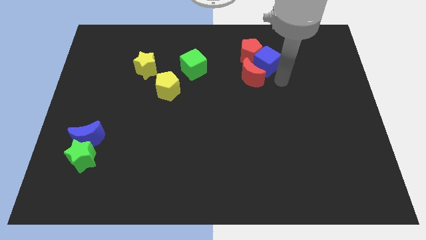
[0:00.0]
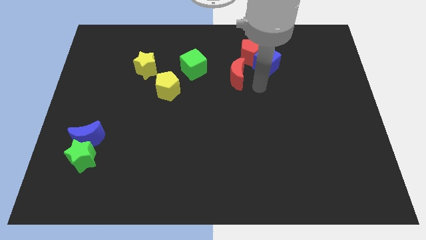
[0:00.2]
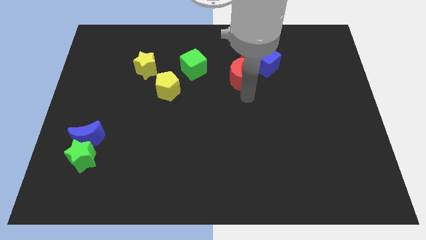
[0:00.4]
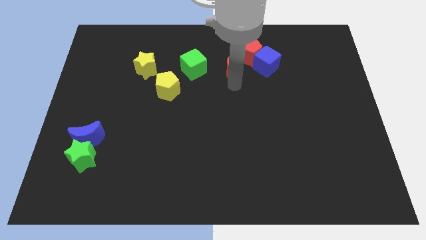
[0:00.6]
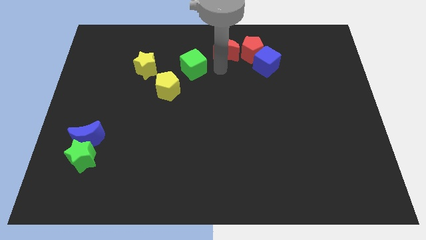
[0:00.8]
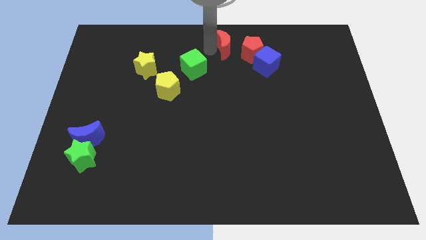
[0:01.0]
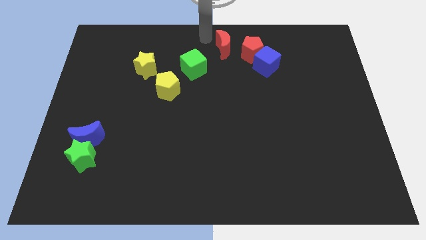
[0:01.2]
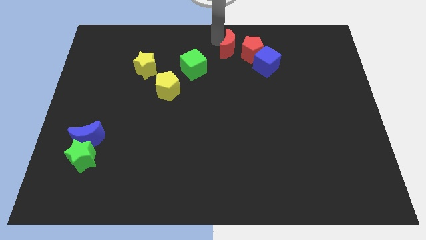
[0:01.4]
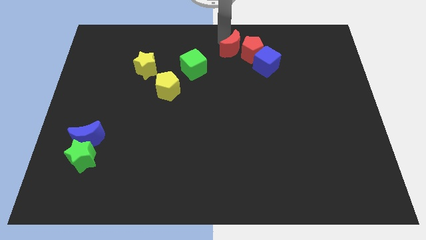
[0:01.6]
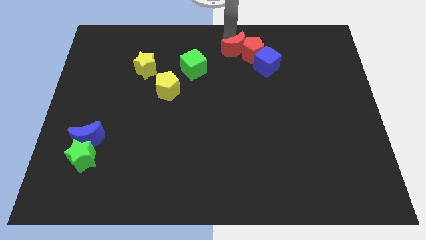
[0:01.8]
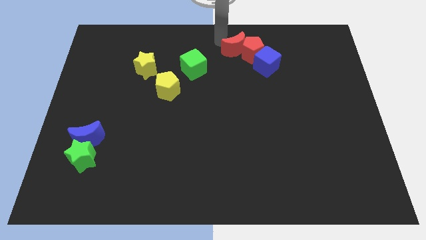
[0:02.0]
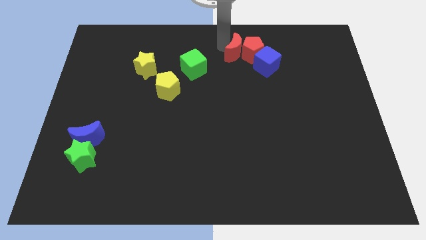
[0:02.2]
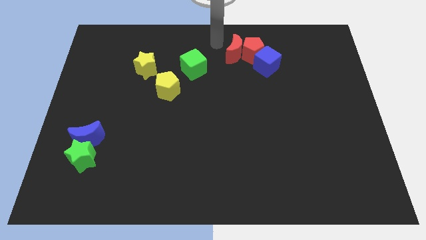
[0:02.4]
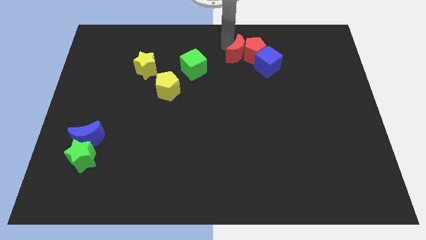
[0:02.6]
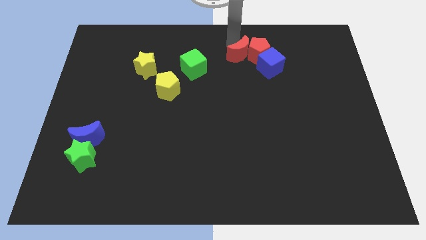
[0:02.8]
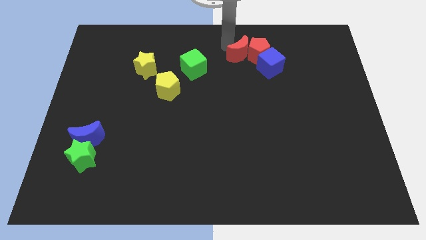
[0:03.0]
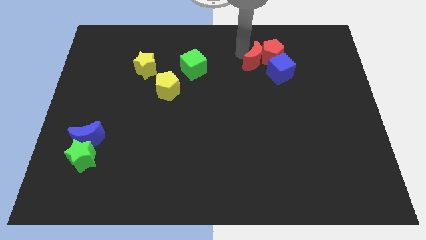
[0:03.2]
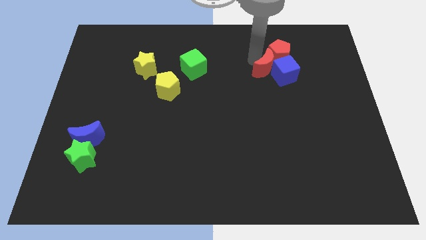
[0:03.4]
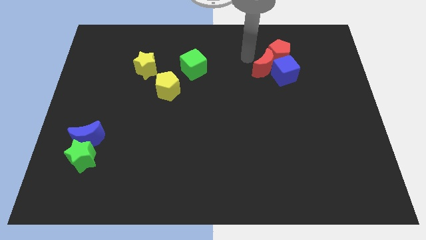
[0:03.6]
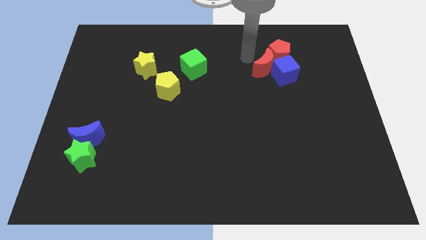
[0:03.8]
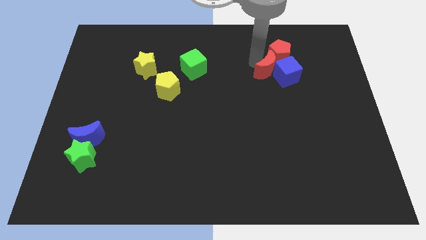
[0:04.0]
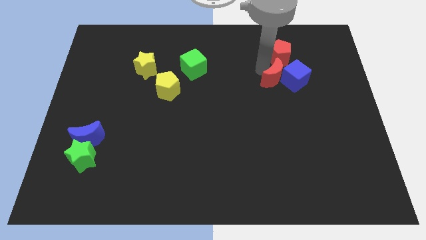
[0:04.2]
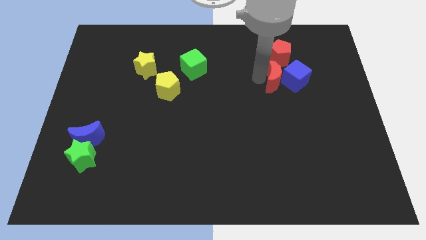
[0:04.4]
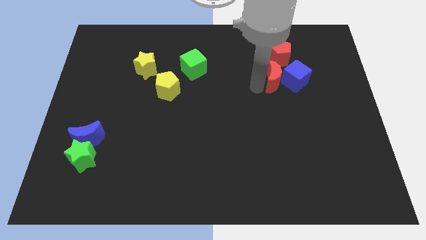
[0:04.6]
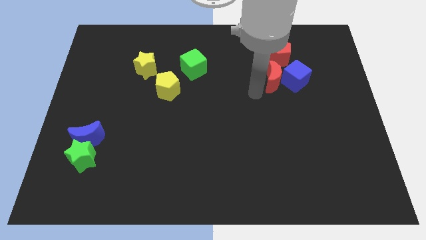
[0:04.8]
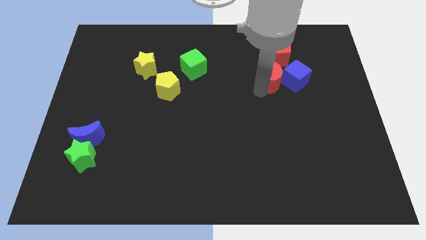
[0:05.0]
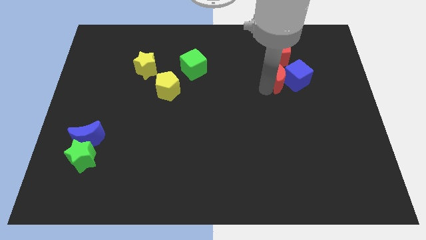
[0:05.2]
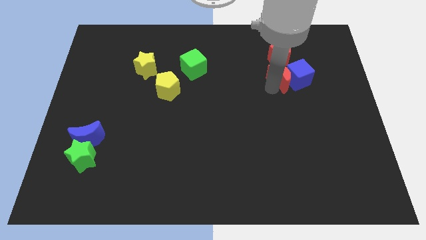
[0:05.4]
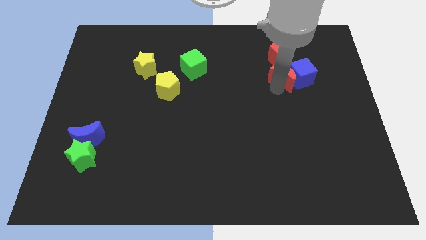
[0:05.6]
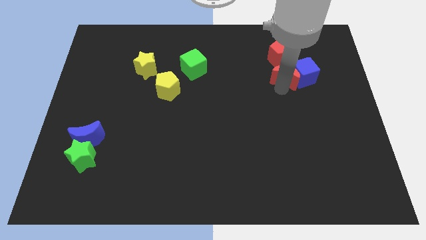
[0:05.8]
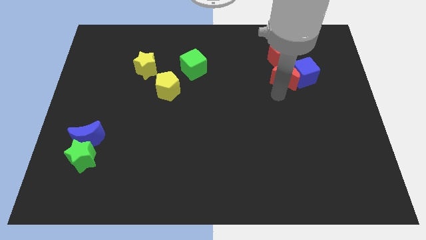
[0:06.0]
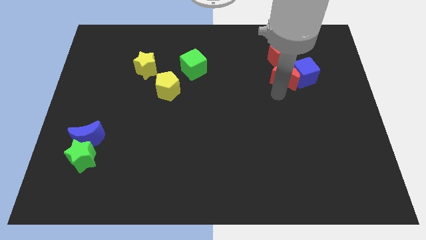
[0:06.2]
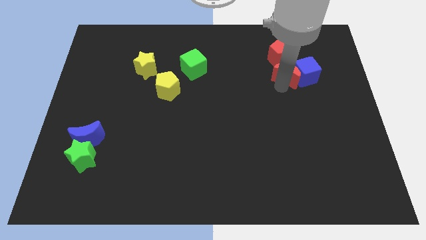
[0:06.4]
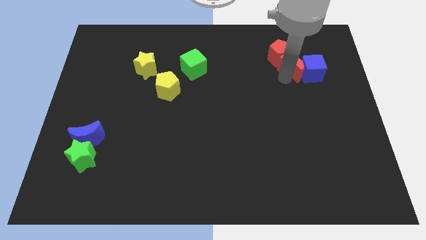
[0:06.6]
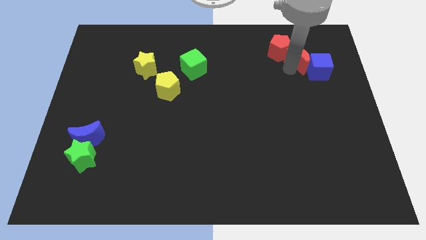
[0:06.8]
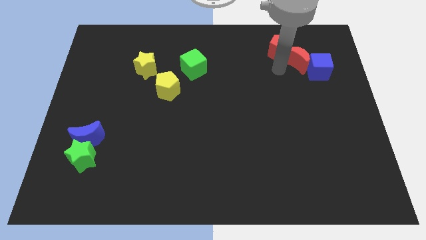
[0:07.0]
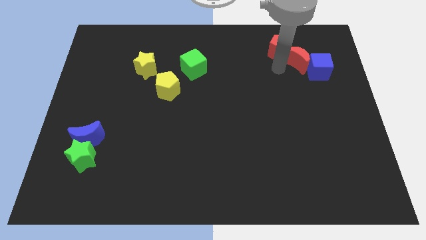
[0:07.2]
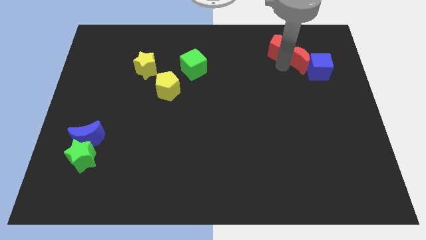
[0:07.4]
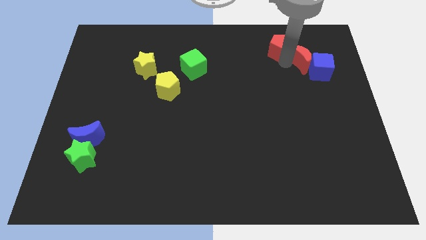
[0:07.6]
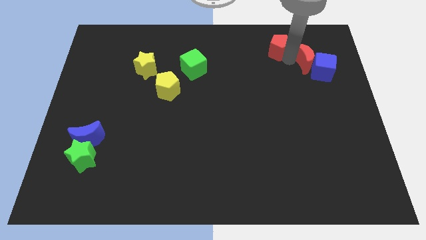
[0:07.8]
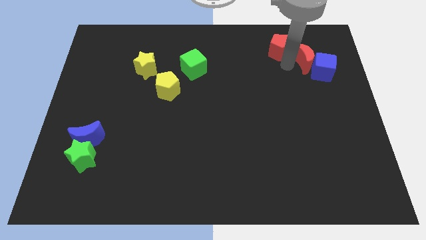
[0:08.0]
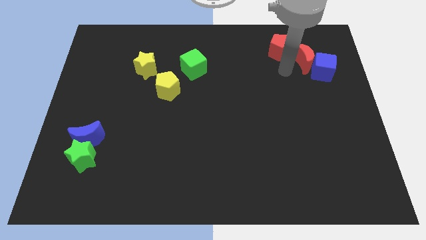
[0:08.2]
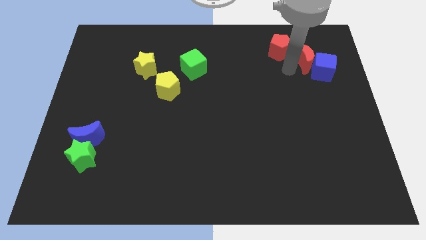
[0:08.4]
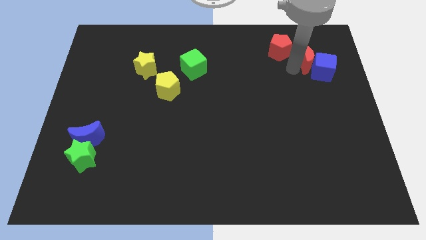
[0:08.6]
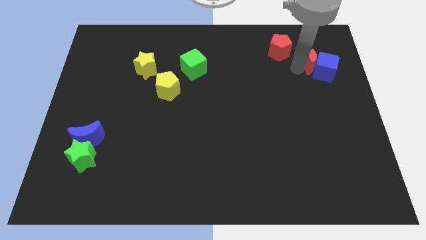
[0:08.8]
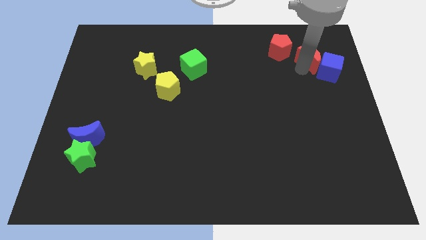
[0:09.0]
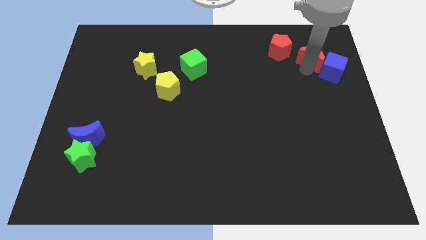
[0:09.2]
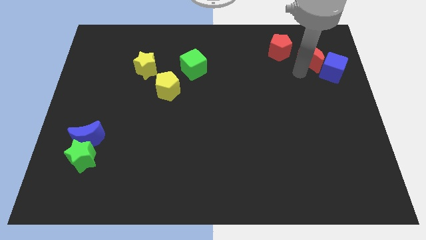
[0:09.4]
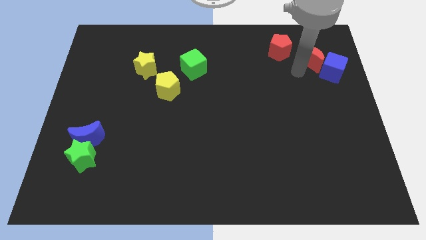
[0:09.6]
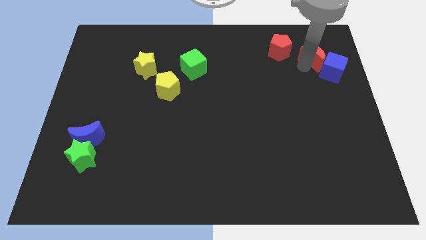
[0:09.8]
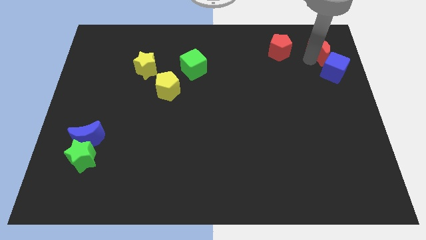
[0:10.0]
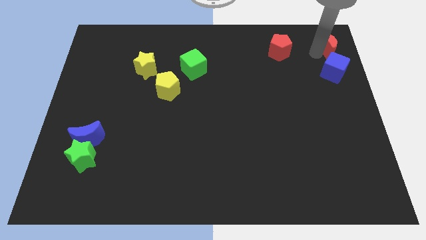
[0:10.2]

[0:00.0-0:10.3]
slide the red moon to the top right of the board

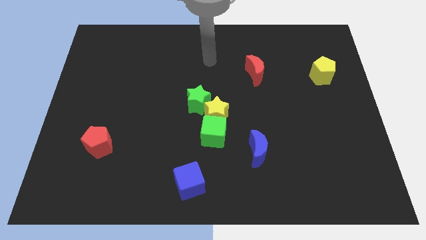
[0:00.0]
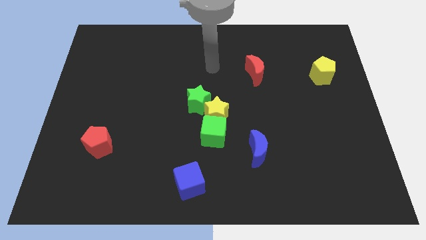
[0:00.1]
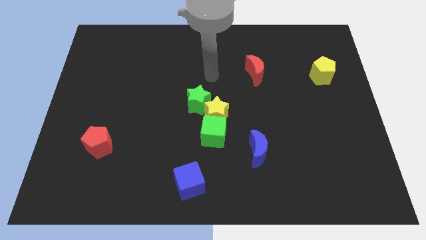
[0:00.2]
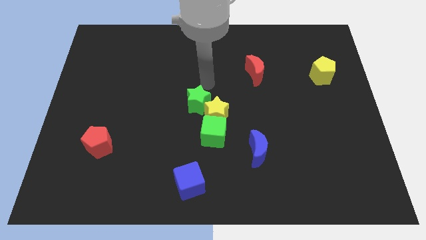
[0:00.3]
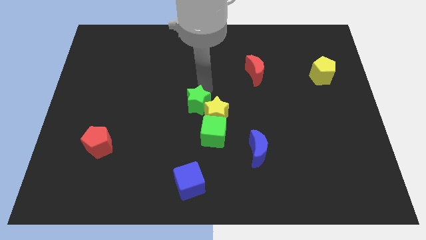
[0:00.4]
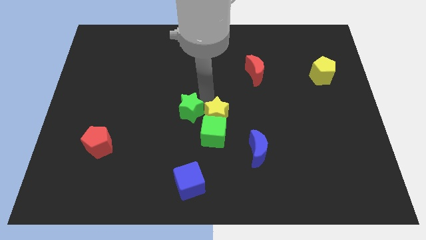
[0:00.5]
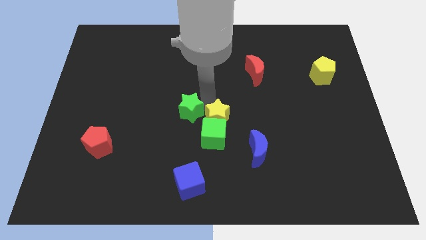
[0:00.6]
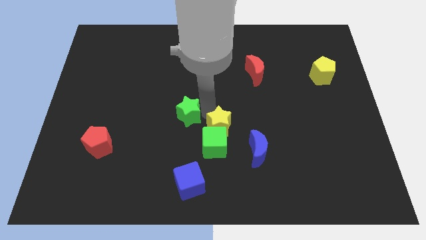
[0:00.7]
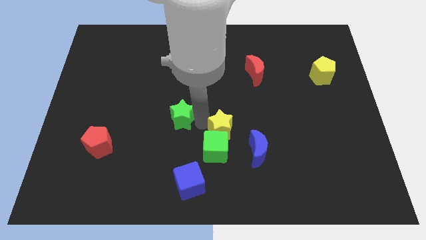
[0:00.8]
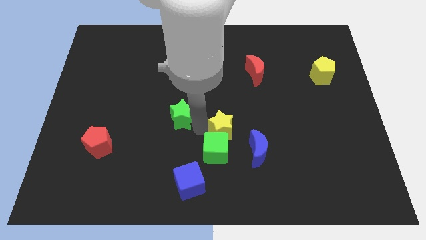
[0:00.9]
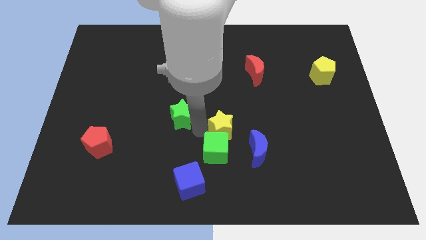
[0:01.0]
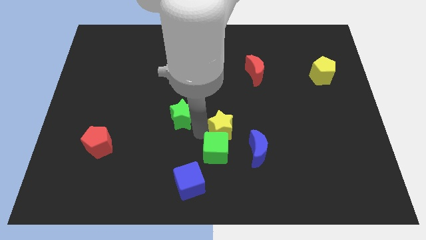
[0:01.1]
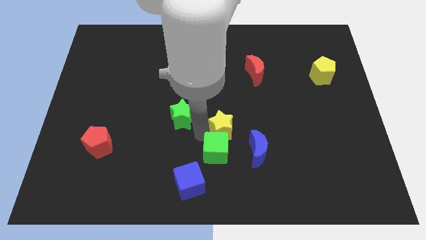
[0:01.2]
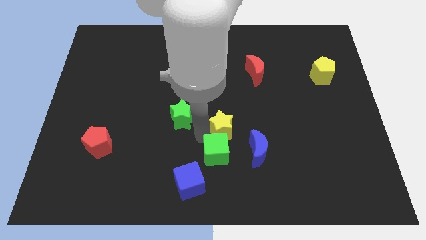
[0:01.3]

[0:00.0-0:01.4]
put the green cube to the bottom

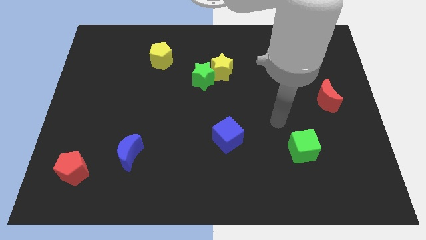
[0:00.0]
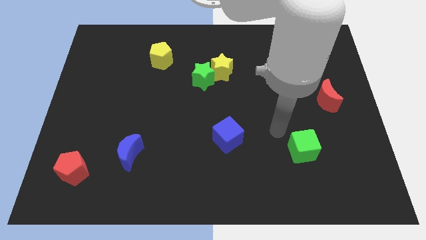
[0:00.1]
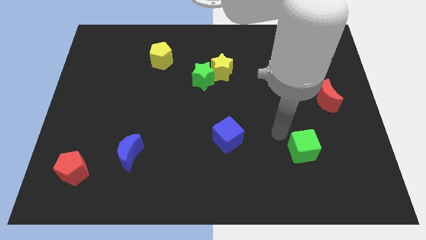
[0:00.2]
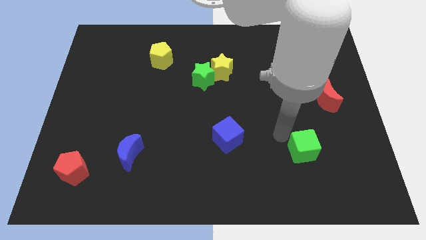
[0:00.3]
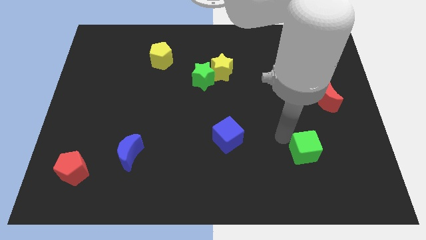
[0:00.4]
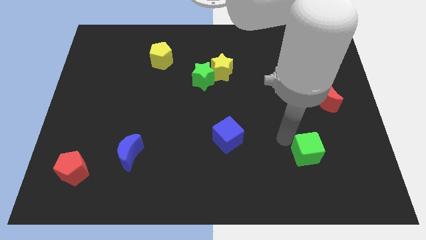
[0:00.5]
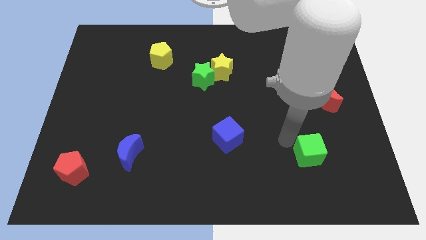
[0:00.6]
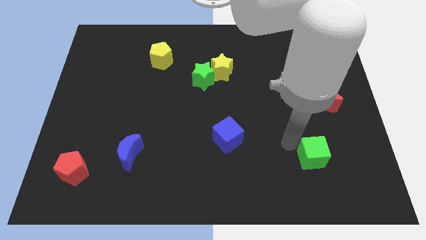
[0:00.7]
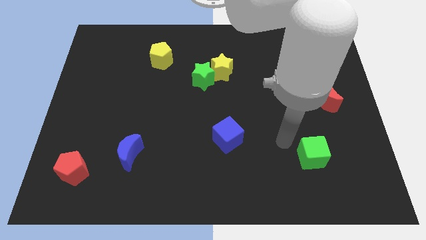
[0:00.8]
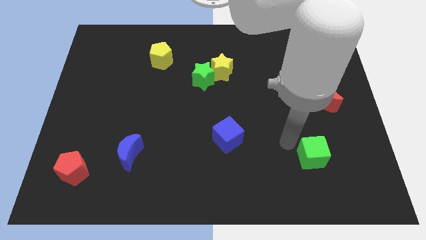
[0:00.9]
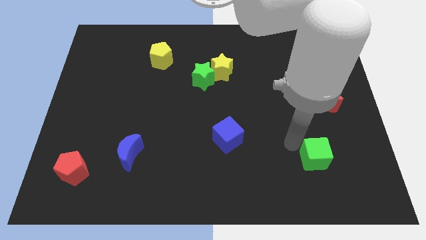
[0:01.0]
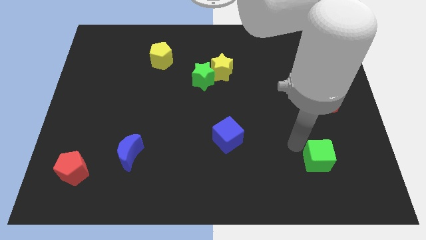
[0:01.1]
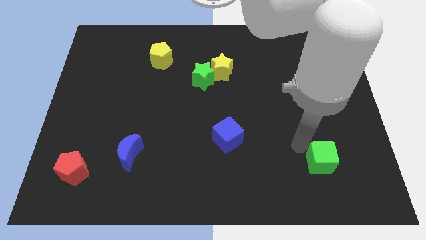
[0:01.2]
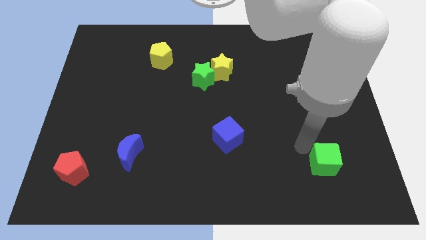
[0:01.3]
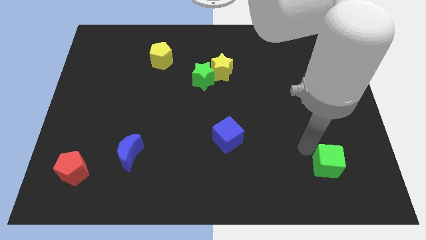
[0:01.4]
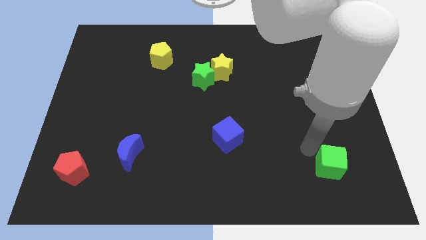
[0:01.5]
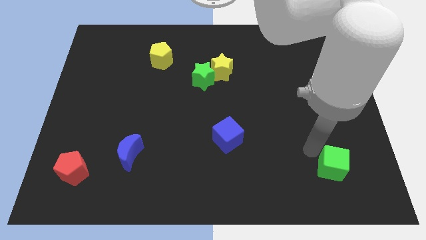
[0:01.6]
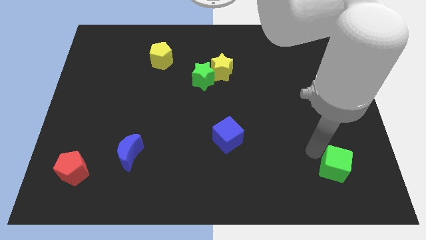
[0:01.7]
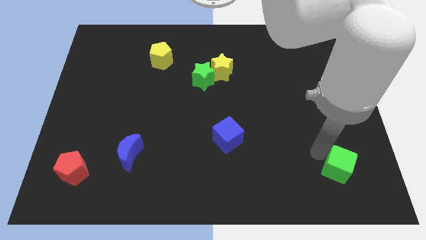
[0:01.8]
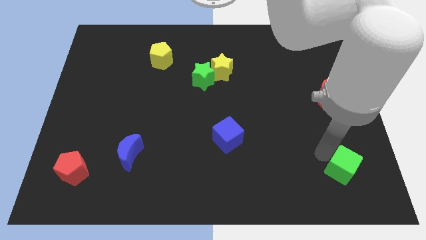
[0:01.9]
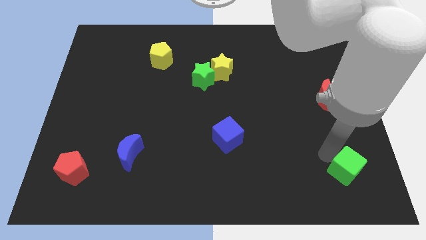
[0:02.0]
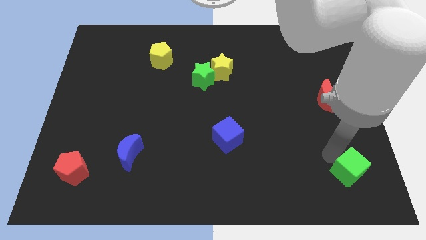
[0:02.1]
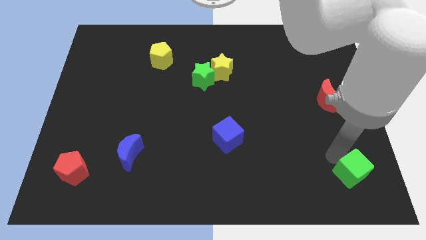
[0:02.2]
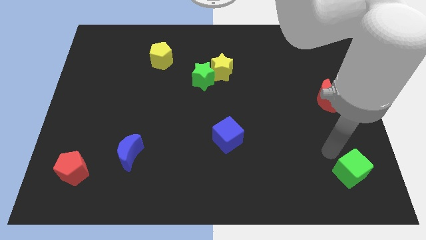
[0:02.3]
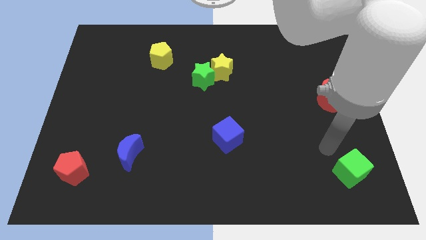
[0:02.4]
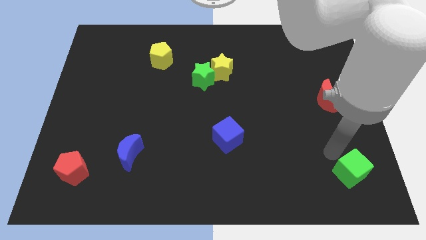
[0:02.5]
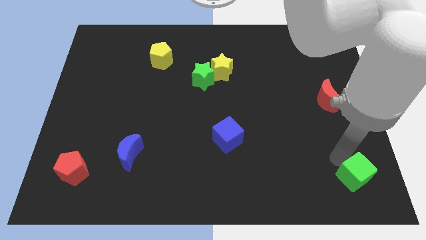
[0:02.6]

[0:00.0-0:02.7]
push the green cube to the bottom right of the board
